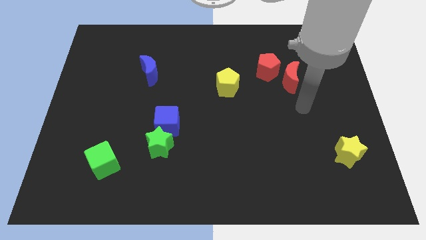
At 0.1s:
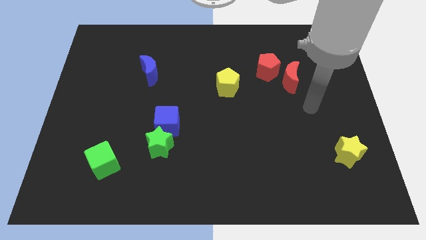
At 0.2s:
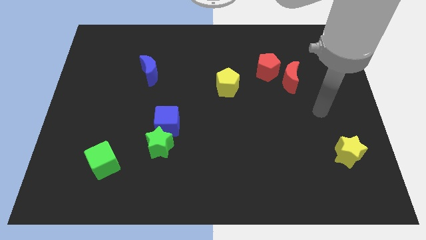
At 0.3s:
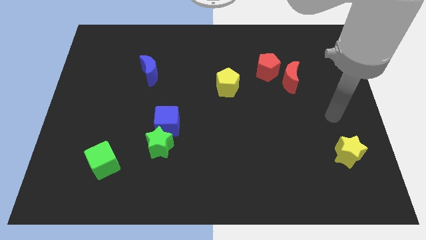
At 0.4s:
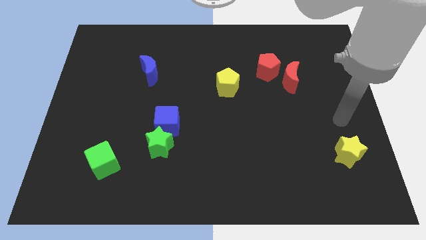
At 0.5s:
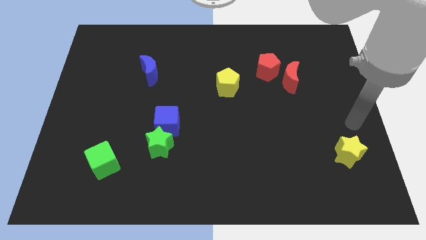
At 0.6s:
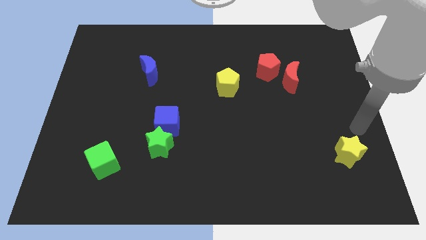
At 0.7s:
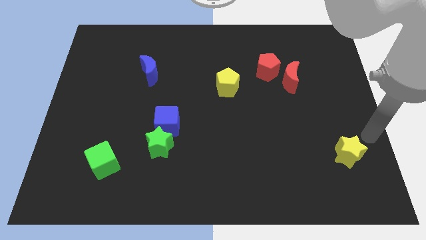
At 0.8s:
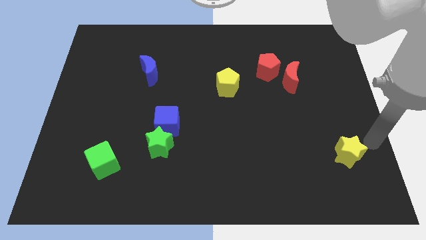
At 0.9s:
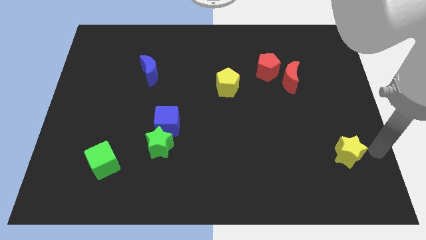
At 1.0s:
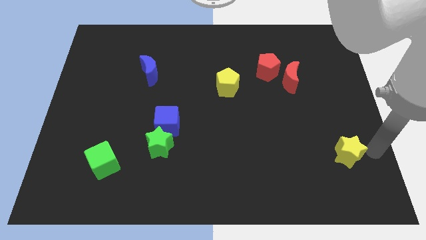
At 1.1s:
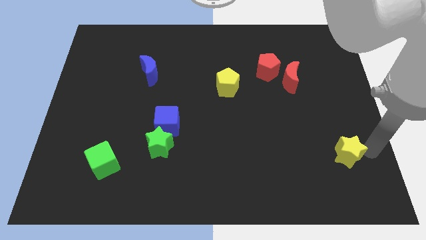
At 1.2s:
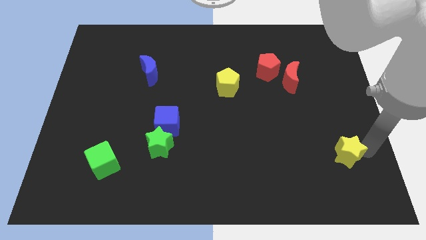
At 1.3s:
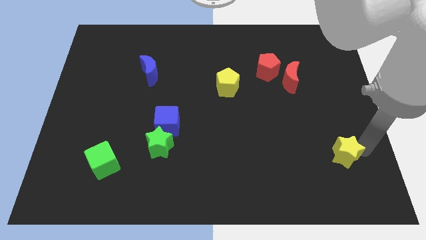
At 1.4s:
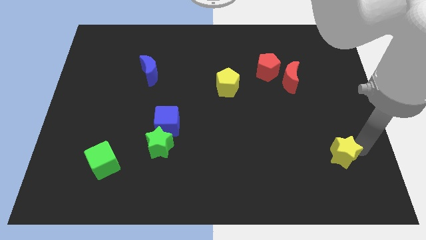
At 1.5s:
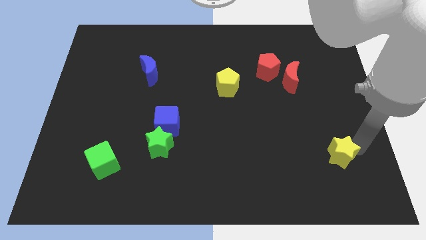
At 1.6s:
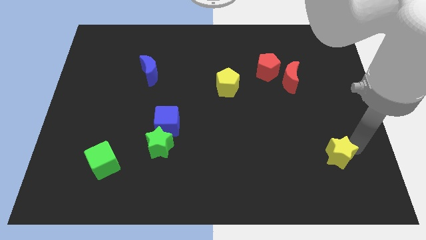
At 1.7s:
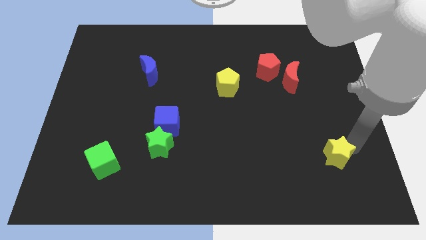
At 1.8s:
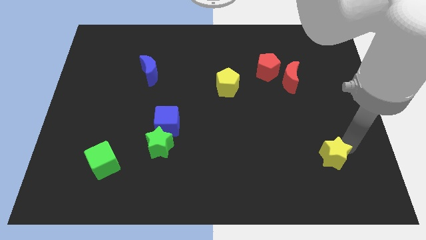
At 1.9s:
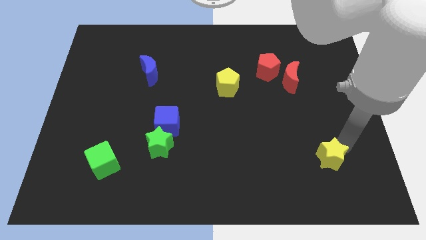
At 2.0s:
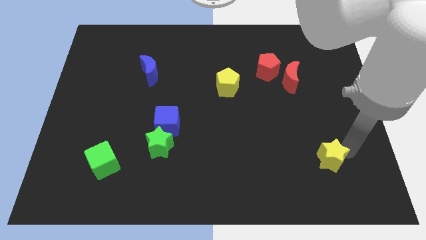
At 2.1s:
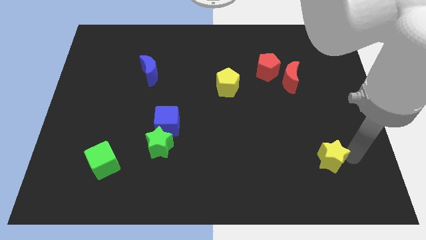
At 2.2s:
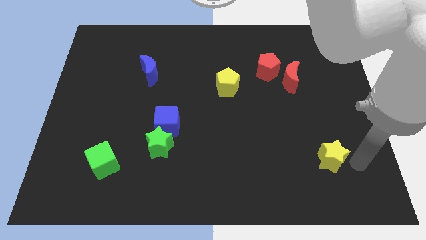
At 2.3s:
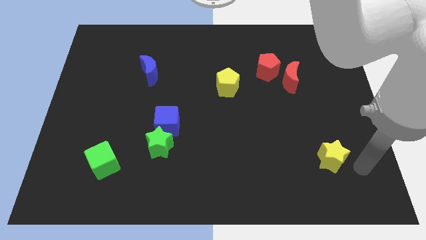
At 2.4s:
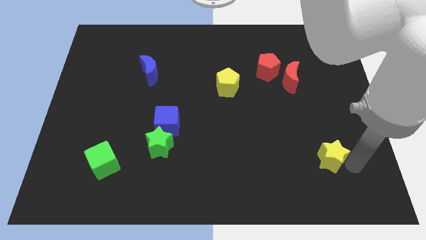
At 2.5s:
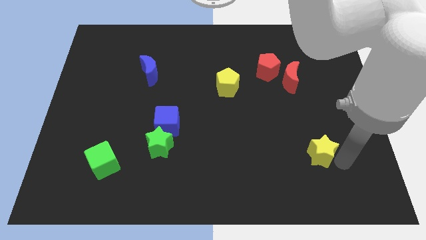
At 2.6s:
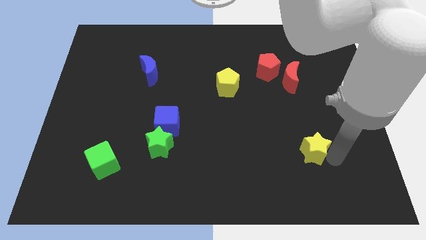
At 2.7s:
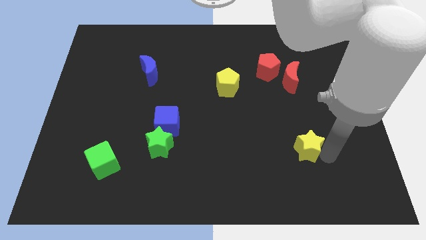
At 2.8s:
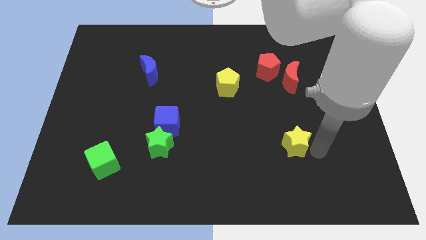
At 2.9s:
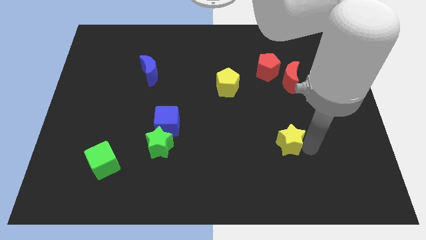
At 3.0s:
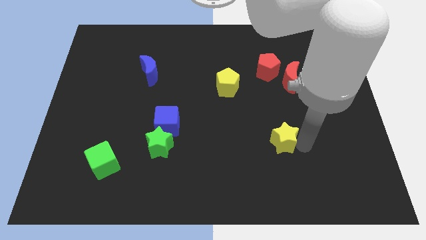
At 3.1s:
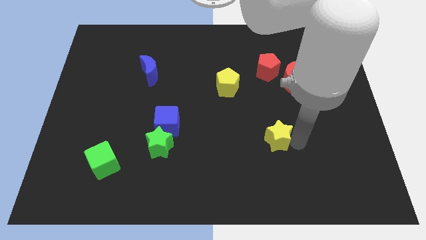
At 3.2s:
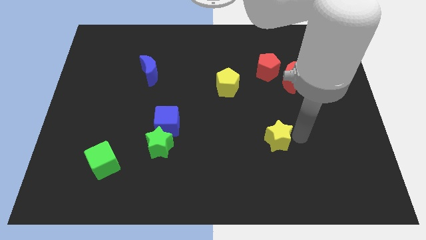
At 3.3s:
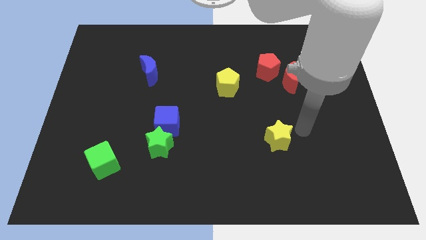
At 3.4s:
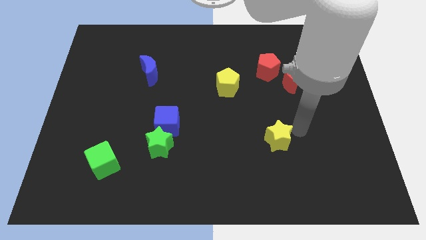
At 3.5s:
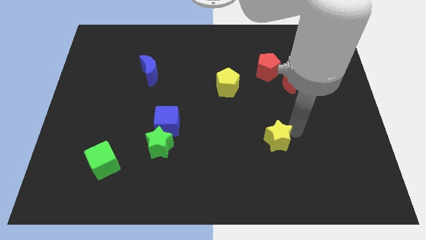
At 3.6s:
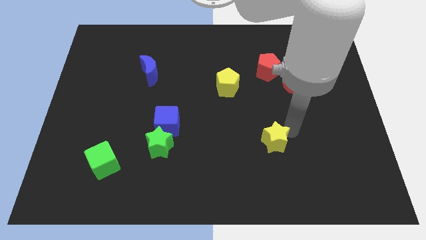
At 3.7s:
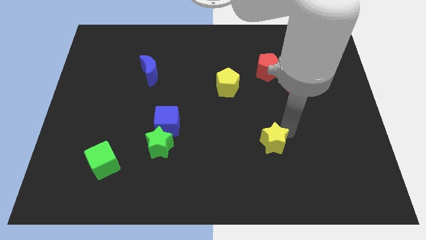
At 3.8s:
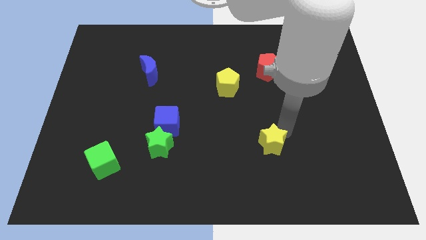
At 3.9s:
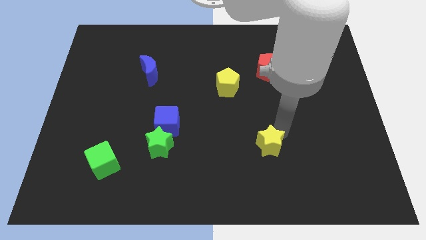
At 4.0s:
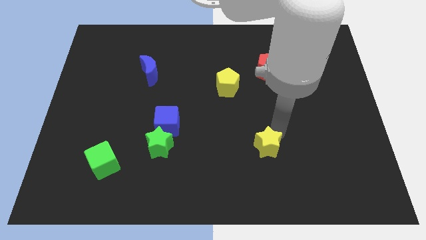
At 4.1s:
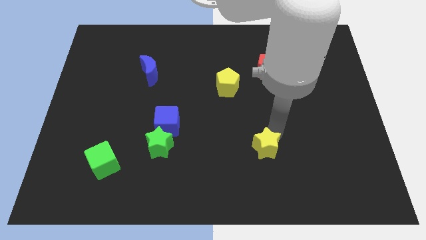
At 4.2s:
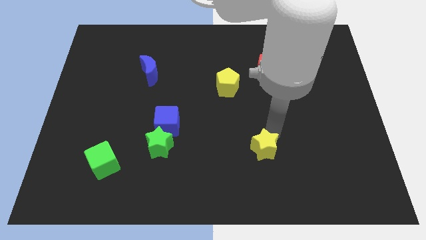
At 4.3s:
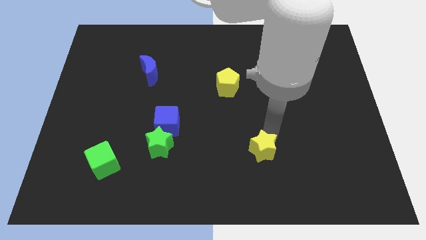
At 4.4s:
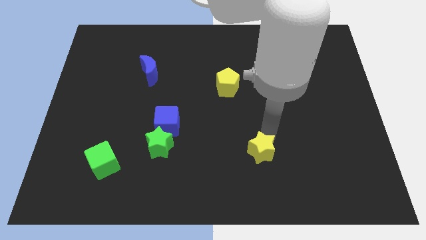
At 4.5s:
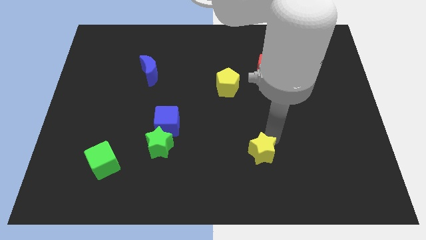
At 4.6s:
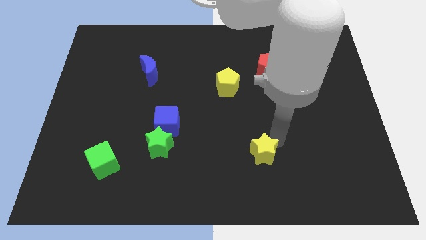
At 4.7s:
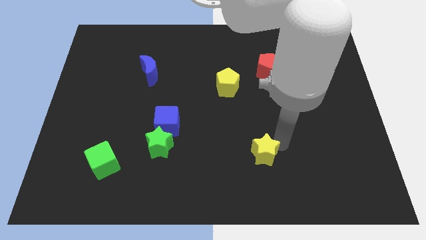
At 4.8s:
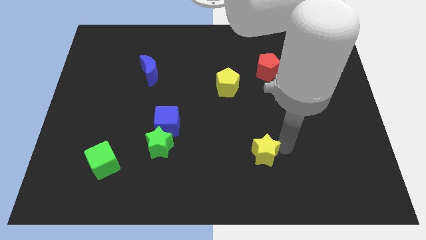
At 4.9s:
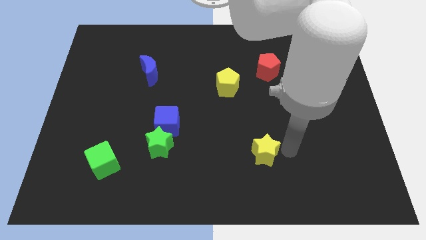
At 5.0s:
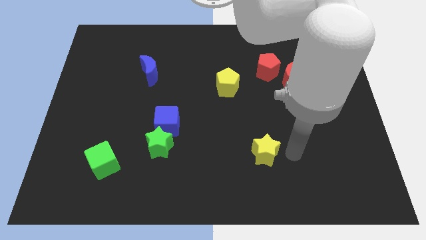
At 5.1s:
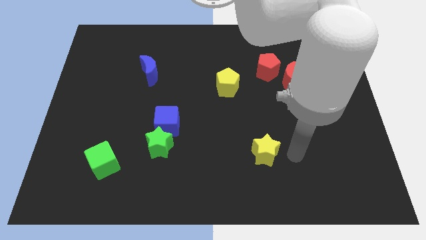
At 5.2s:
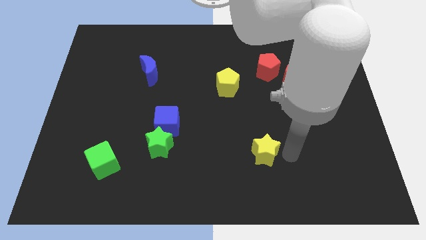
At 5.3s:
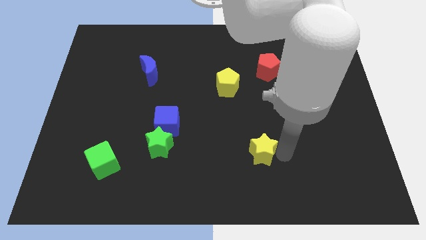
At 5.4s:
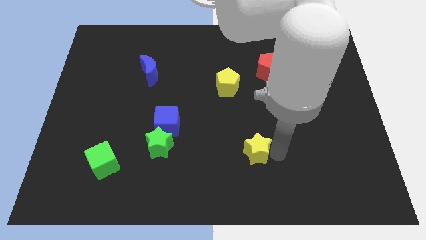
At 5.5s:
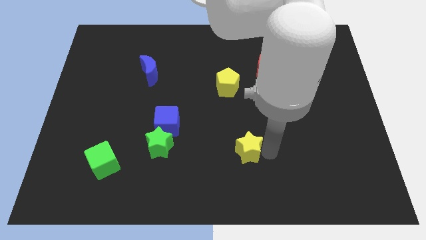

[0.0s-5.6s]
push the yellow star left

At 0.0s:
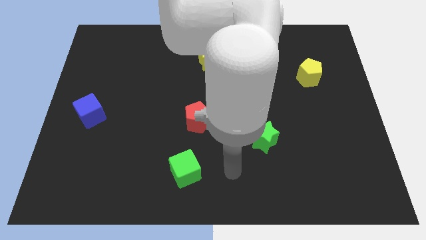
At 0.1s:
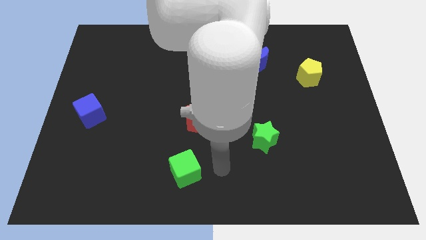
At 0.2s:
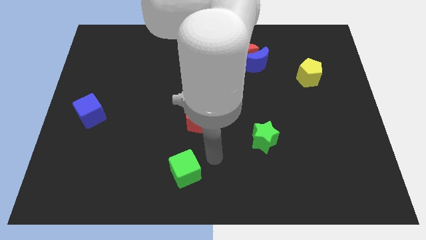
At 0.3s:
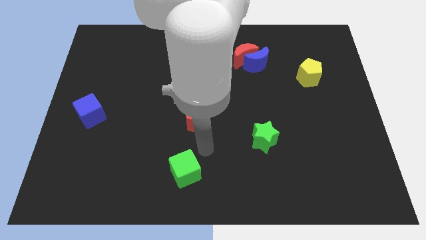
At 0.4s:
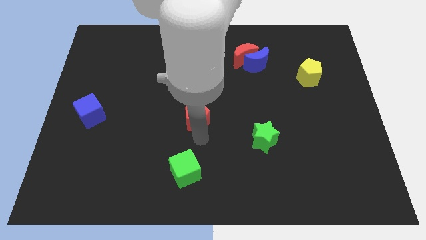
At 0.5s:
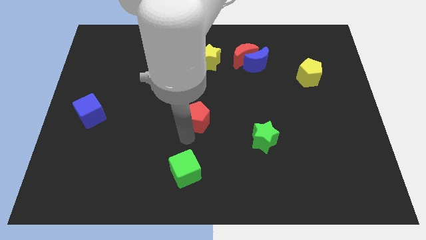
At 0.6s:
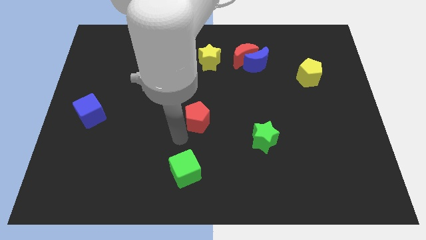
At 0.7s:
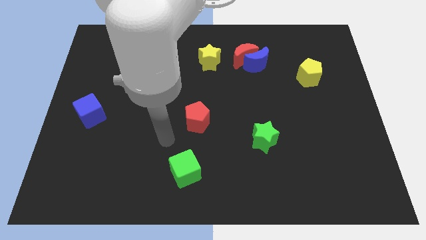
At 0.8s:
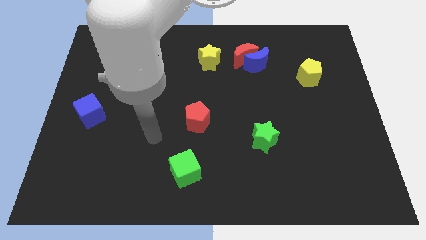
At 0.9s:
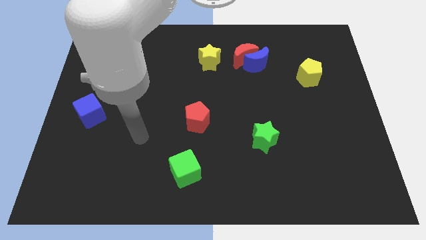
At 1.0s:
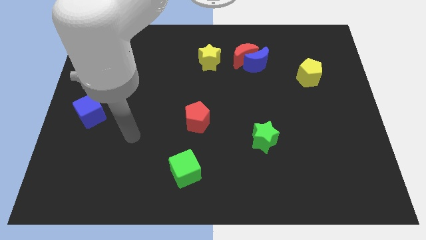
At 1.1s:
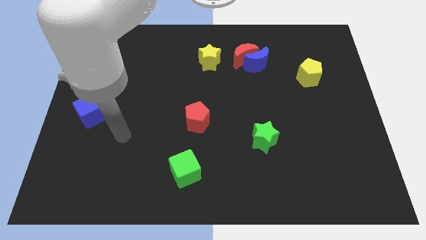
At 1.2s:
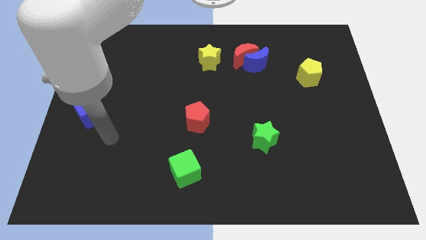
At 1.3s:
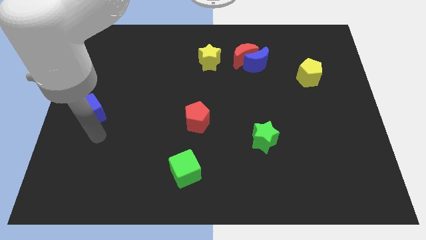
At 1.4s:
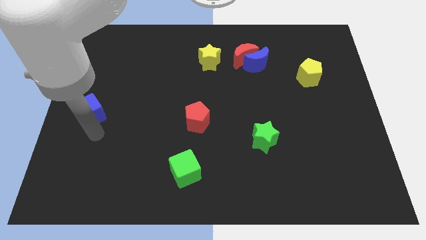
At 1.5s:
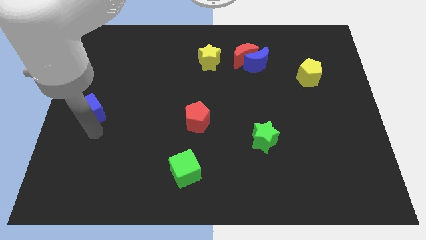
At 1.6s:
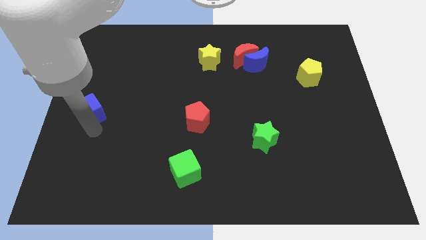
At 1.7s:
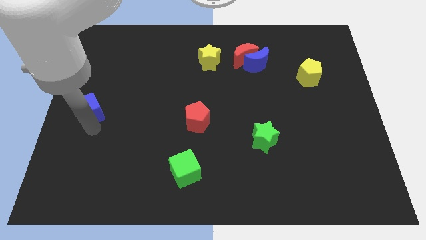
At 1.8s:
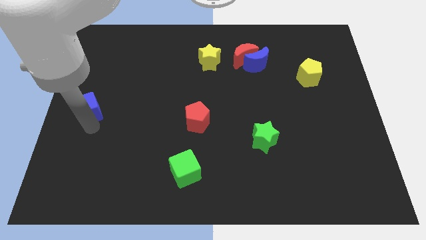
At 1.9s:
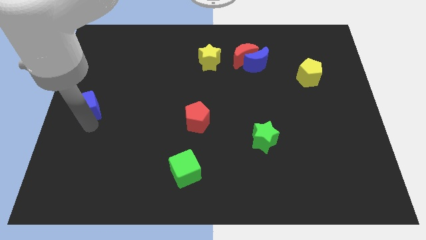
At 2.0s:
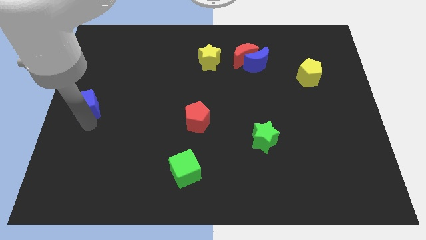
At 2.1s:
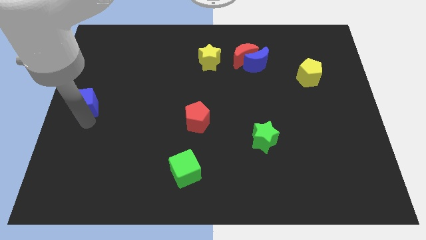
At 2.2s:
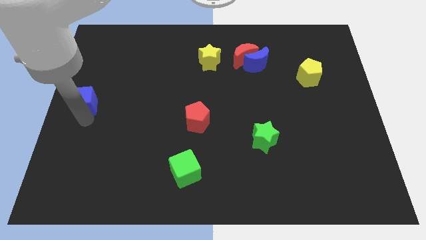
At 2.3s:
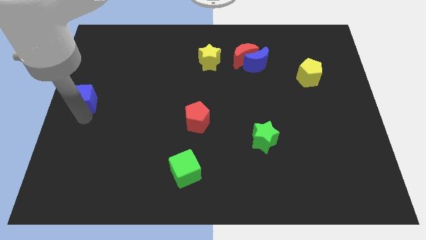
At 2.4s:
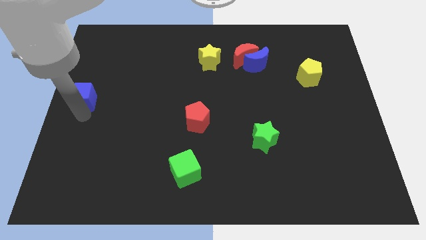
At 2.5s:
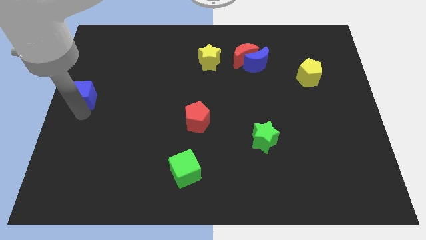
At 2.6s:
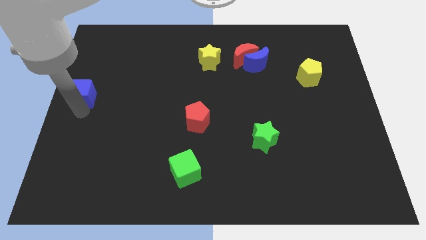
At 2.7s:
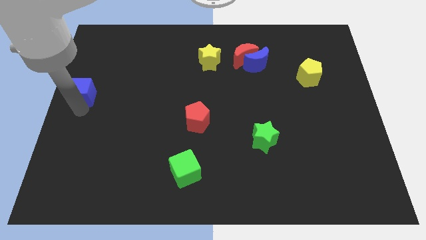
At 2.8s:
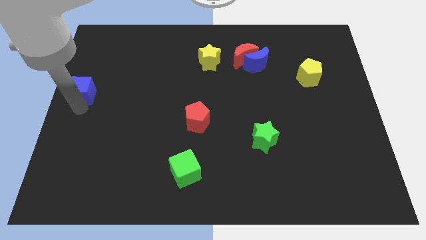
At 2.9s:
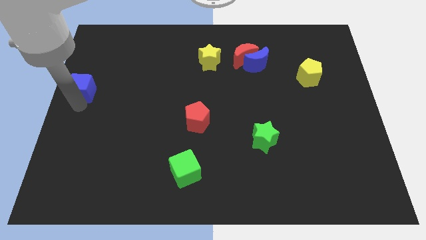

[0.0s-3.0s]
push the blue cube upwards a little
